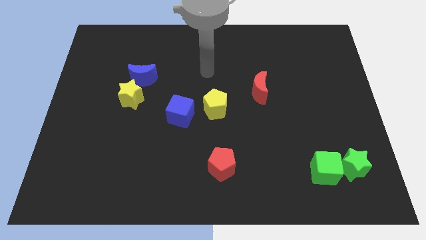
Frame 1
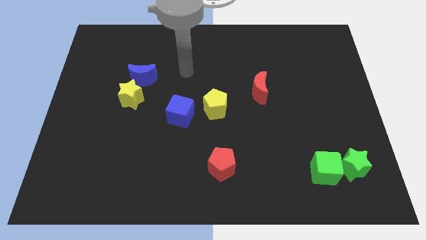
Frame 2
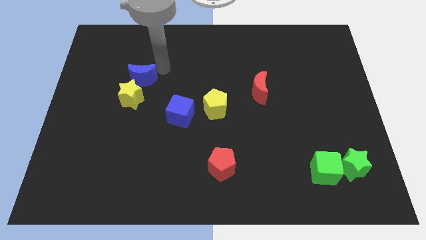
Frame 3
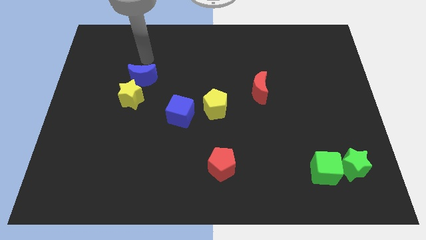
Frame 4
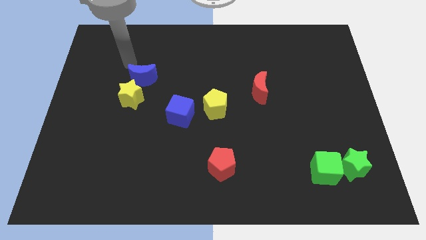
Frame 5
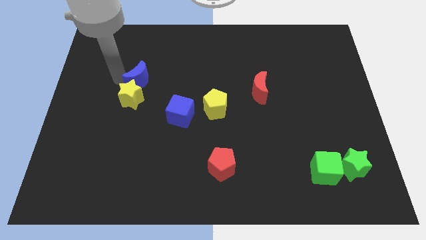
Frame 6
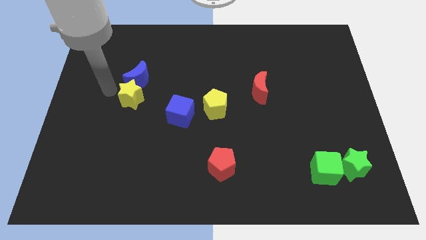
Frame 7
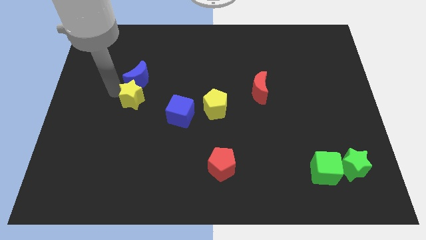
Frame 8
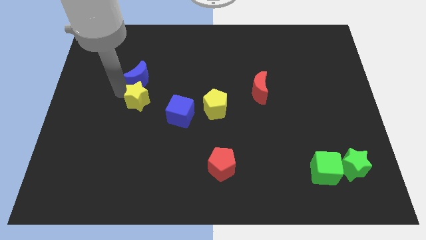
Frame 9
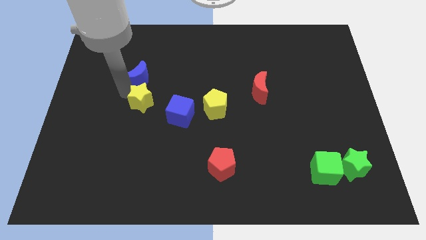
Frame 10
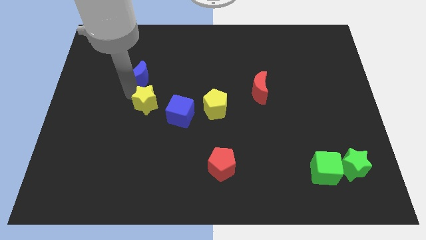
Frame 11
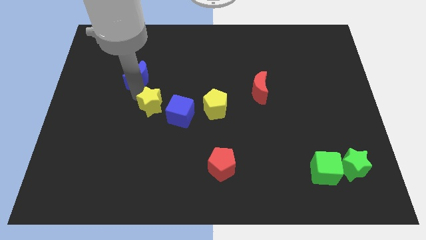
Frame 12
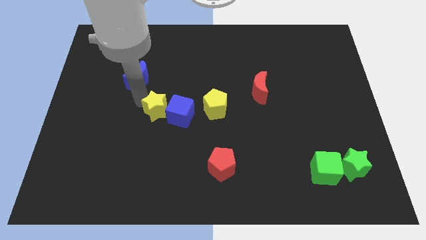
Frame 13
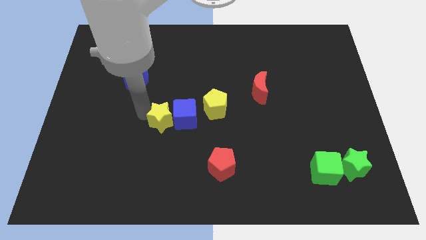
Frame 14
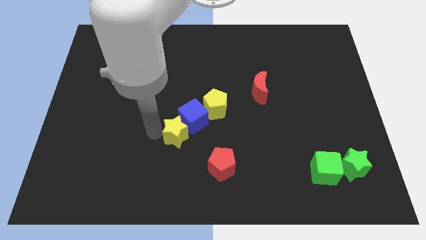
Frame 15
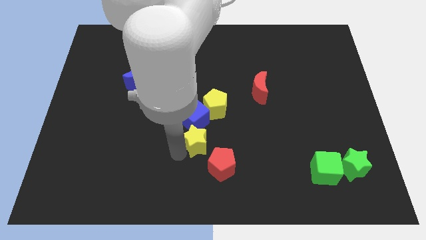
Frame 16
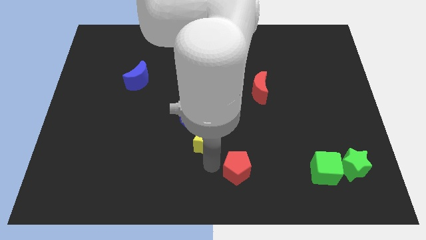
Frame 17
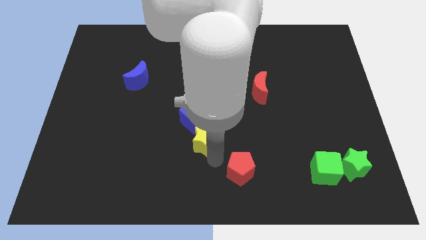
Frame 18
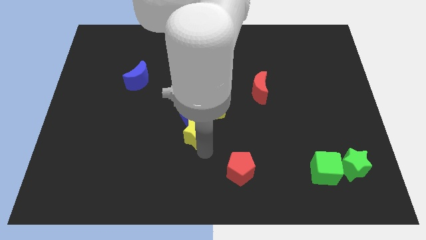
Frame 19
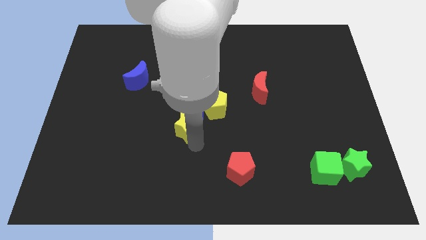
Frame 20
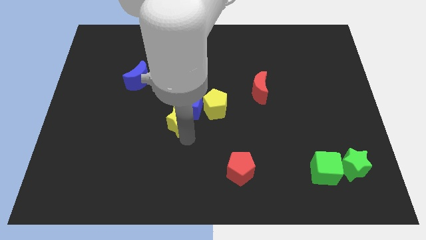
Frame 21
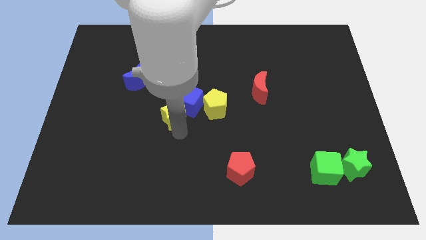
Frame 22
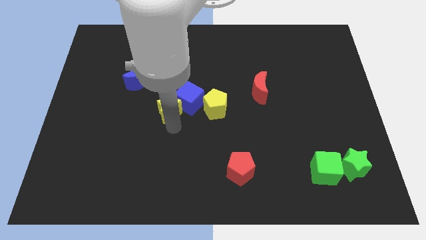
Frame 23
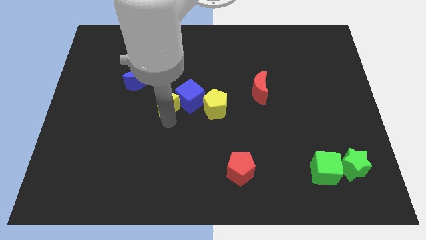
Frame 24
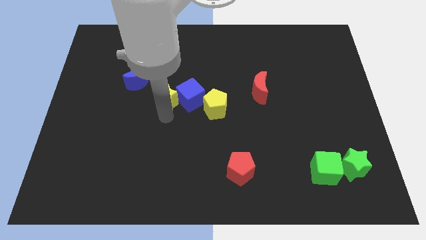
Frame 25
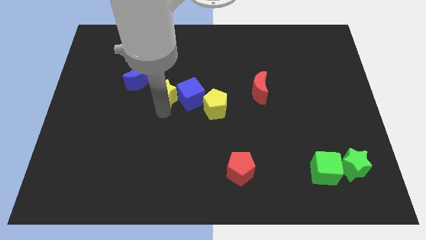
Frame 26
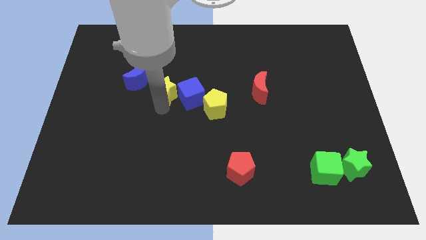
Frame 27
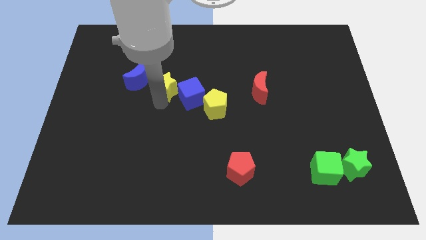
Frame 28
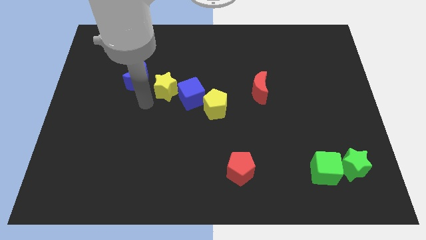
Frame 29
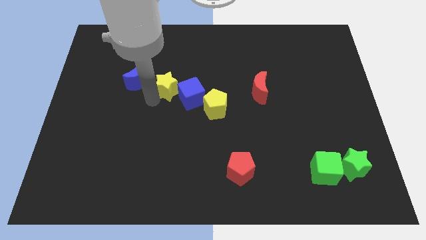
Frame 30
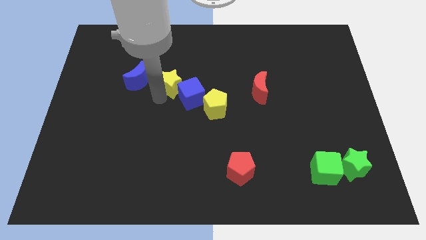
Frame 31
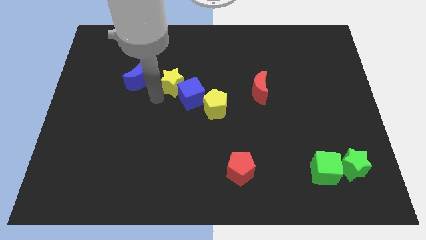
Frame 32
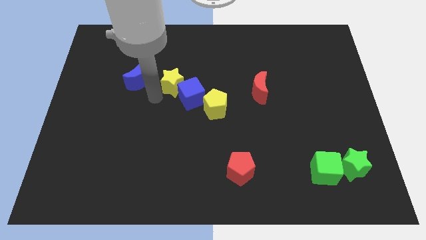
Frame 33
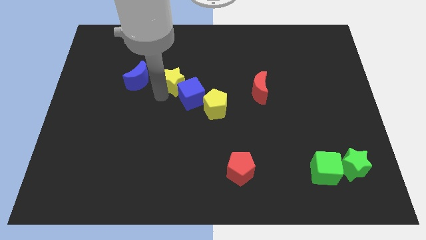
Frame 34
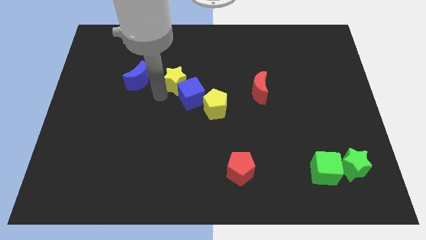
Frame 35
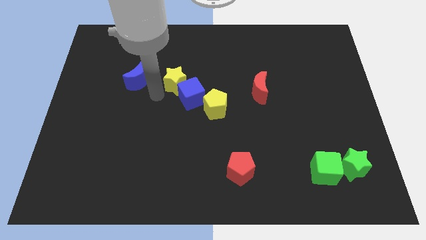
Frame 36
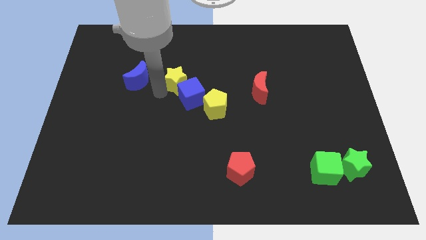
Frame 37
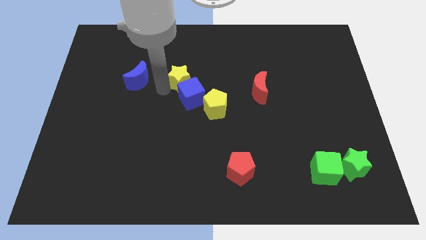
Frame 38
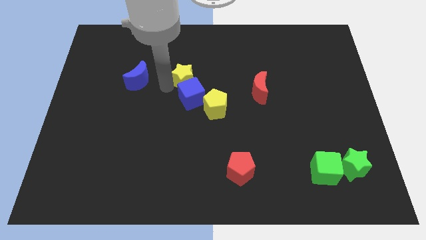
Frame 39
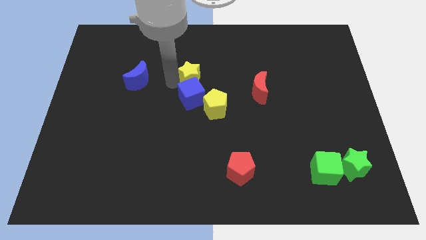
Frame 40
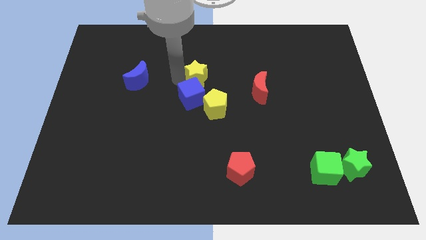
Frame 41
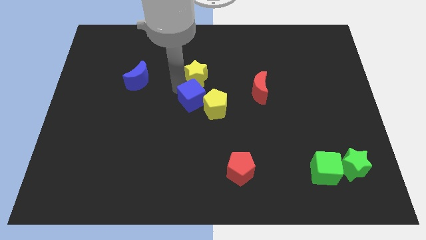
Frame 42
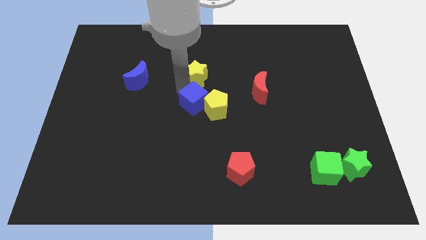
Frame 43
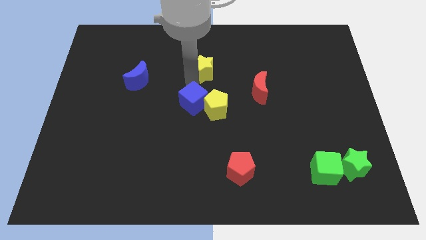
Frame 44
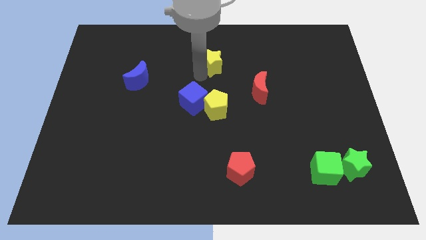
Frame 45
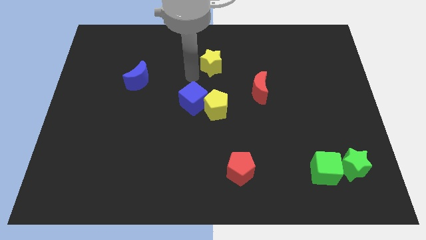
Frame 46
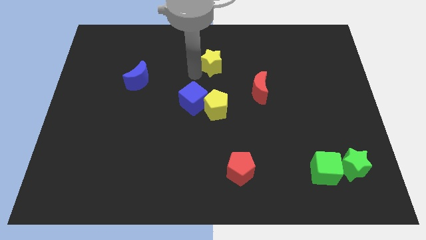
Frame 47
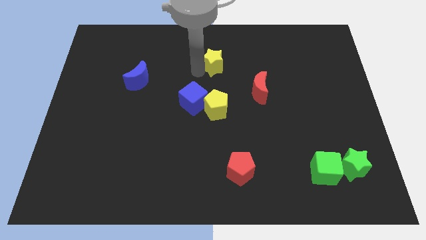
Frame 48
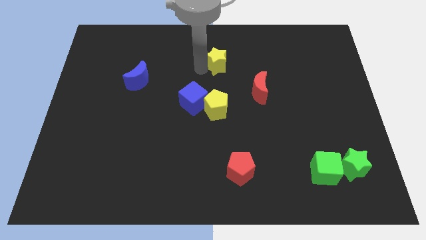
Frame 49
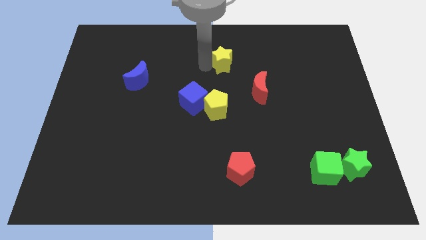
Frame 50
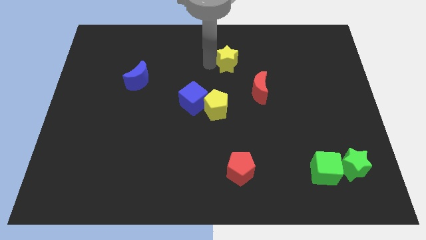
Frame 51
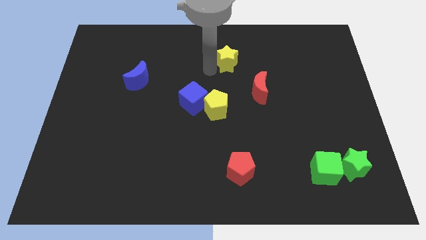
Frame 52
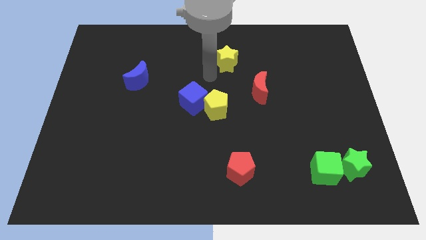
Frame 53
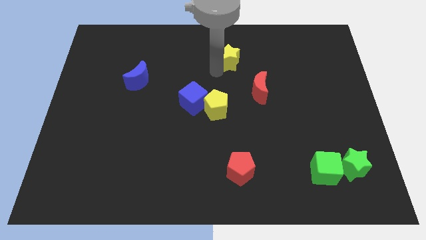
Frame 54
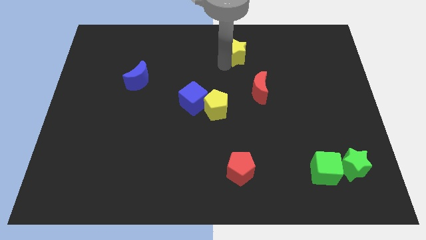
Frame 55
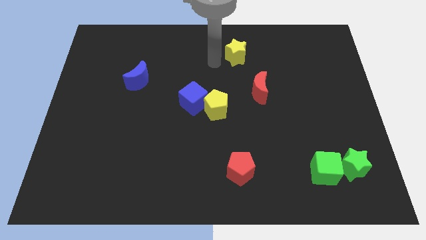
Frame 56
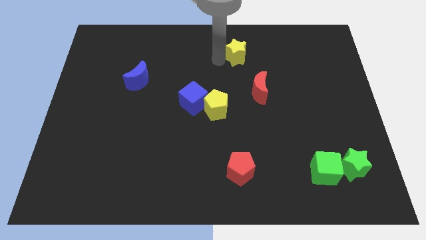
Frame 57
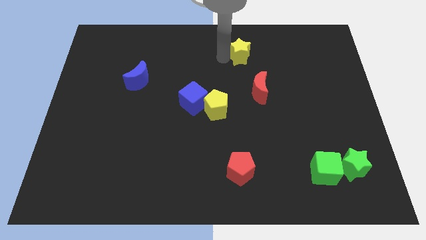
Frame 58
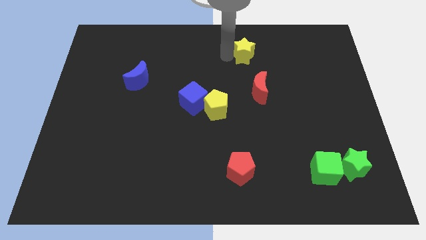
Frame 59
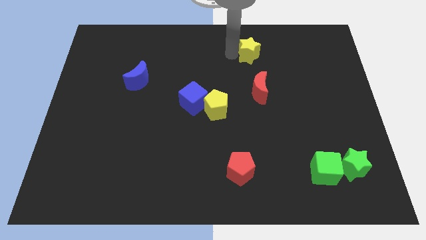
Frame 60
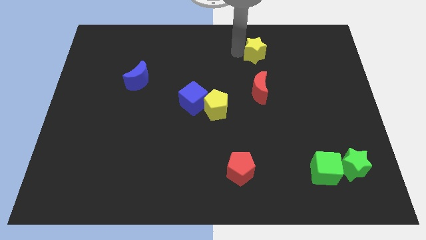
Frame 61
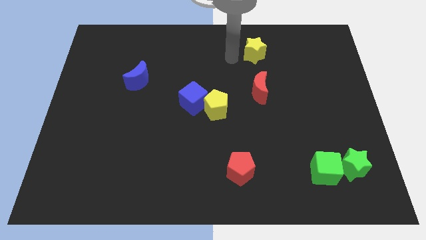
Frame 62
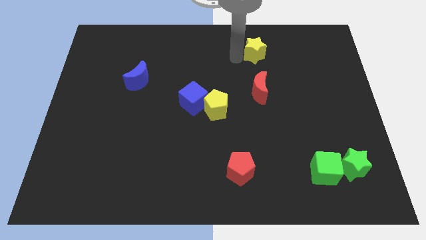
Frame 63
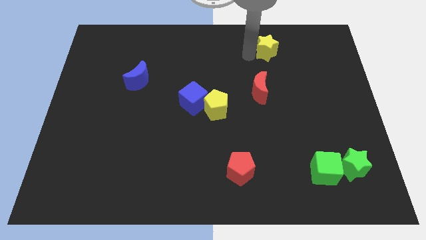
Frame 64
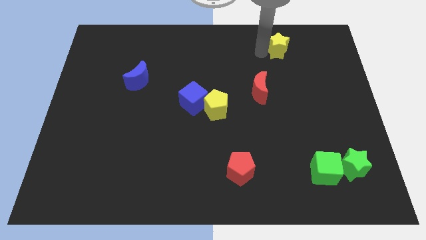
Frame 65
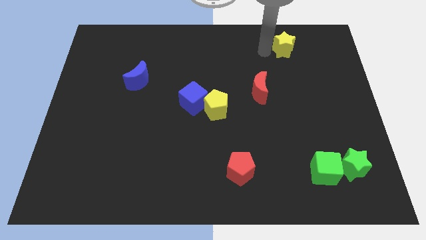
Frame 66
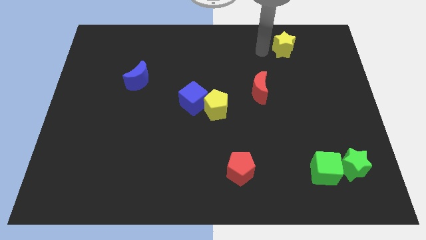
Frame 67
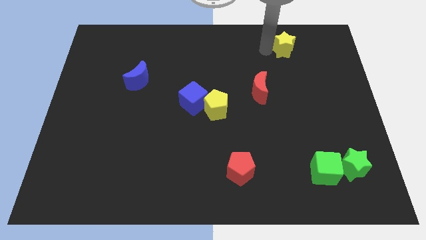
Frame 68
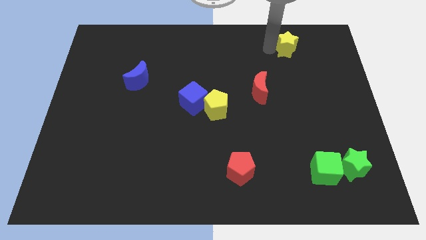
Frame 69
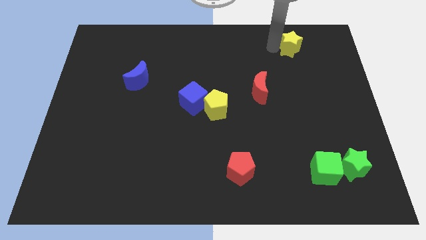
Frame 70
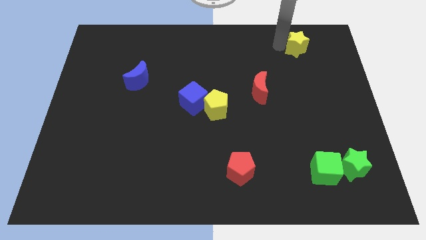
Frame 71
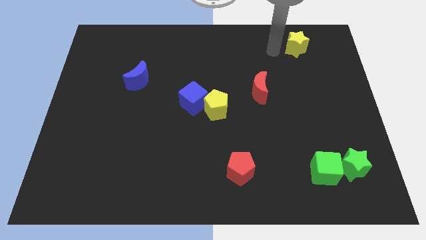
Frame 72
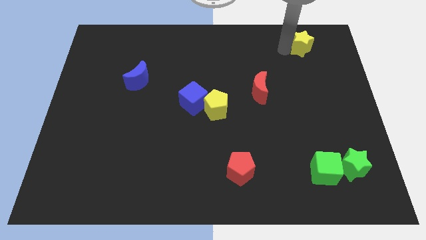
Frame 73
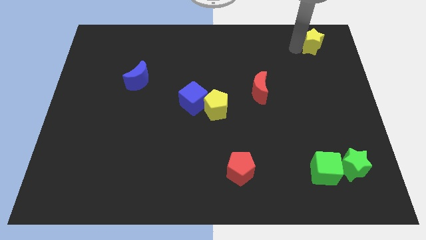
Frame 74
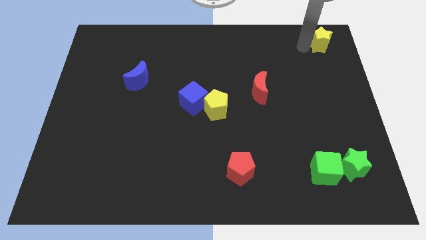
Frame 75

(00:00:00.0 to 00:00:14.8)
slide the yellow star to the upper right corner
